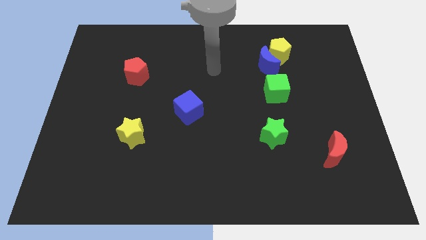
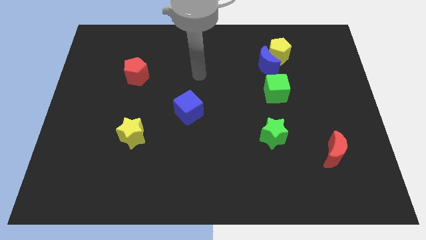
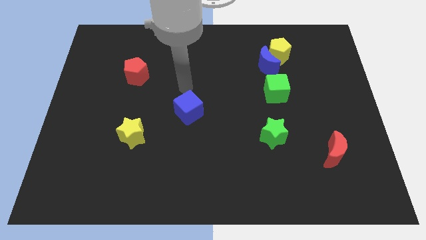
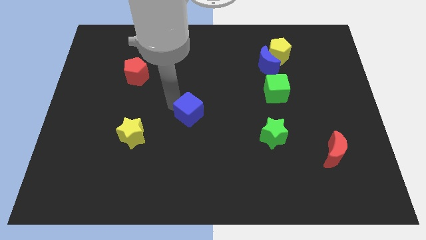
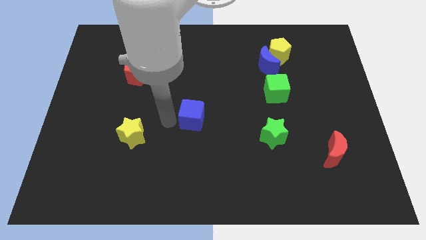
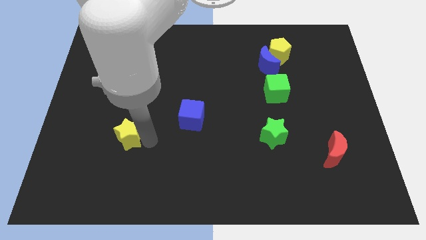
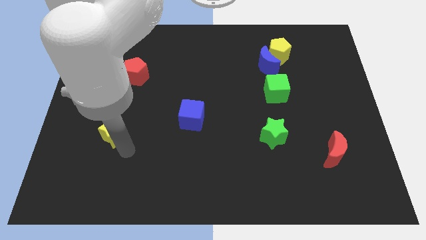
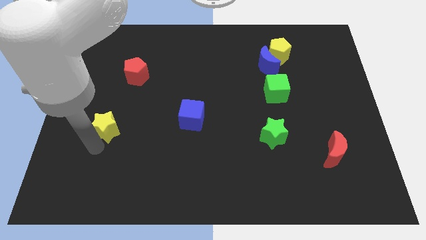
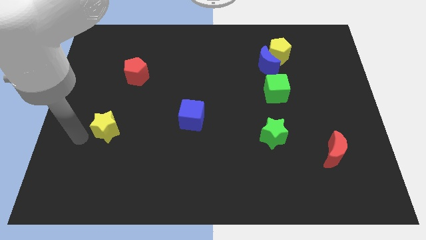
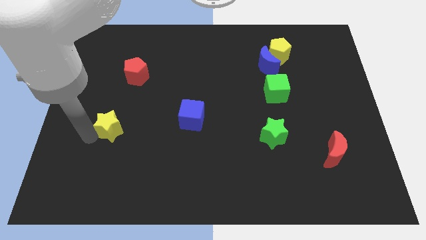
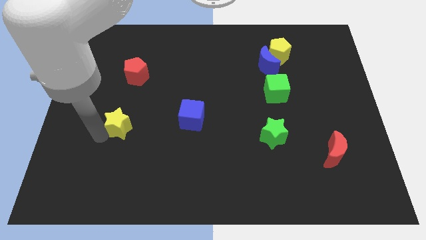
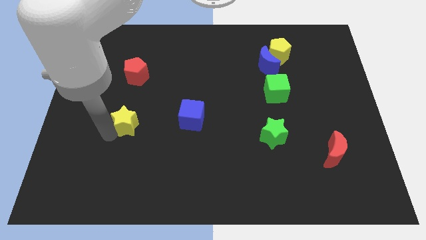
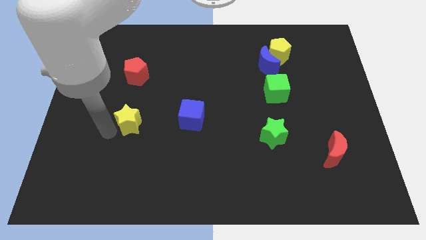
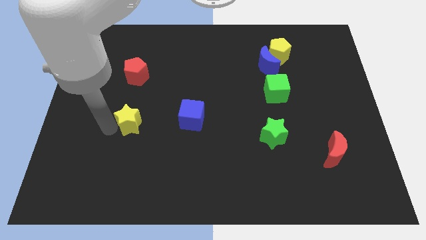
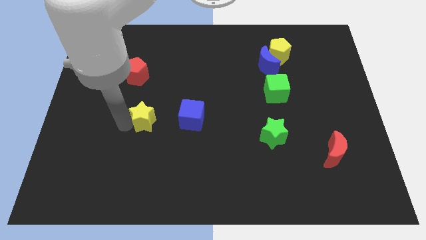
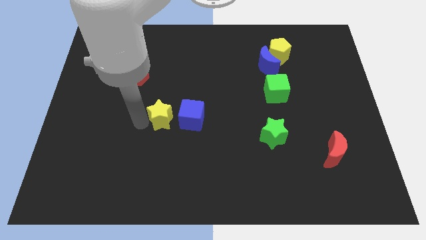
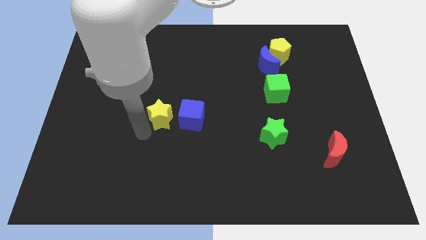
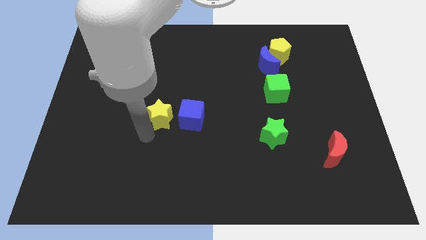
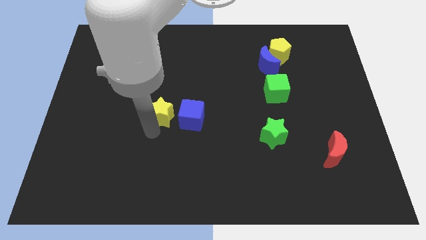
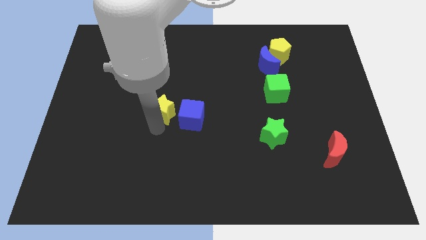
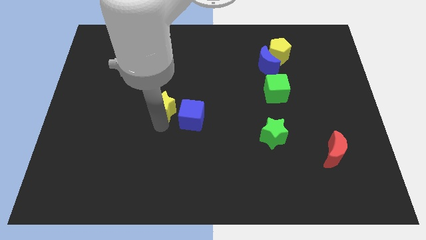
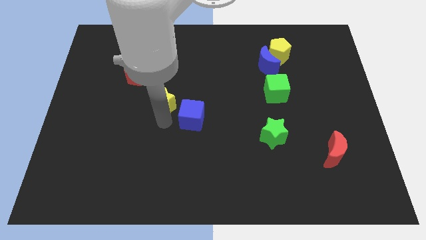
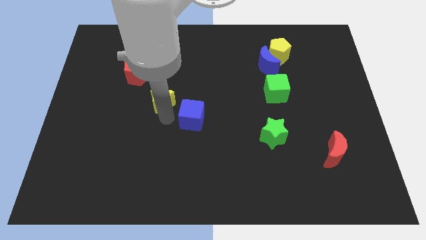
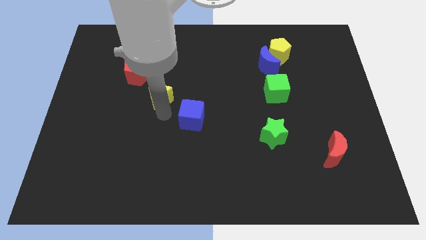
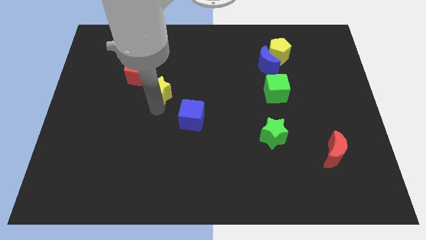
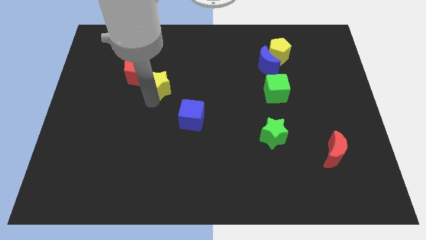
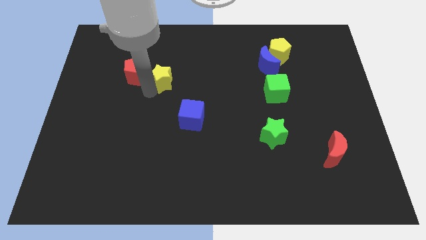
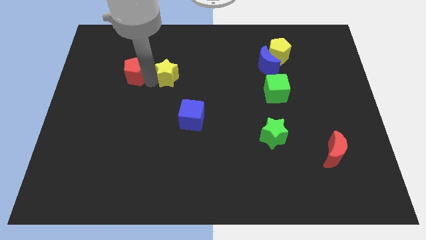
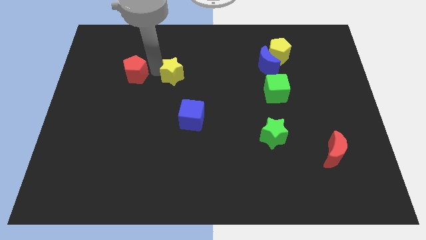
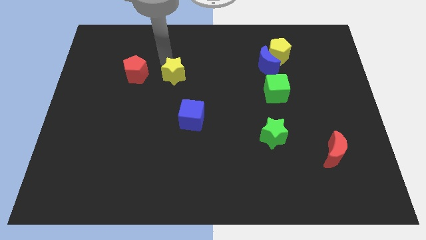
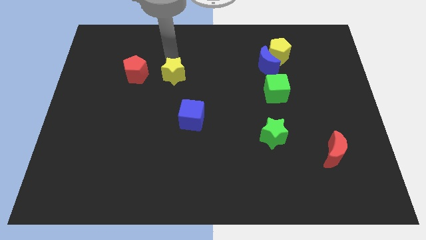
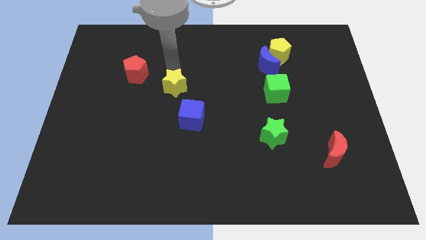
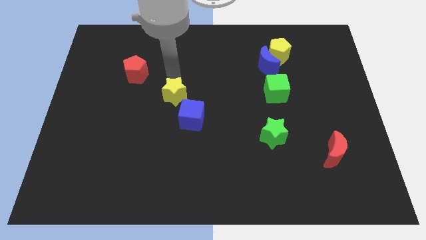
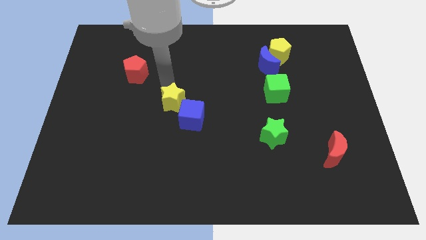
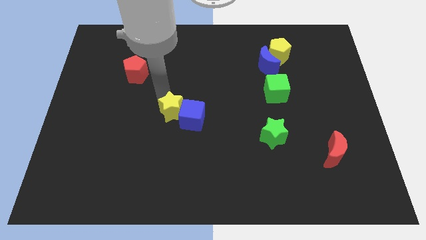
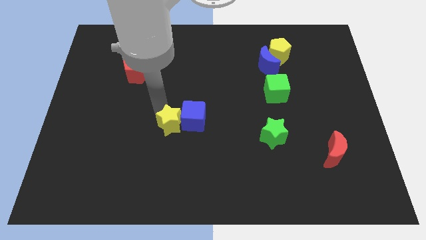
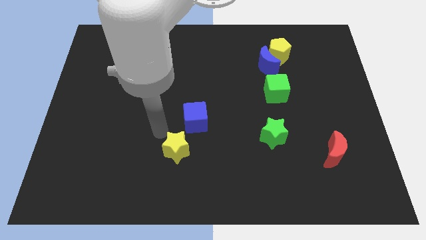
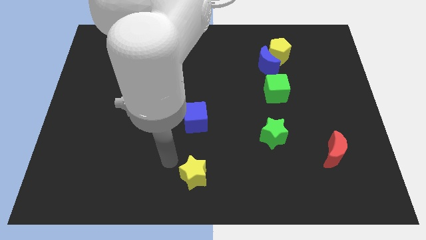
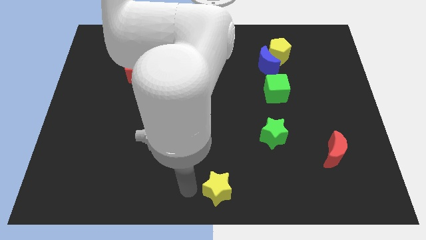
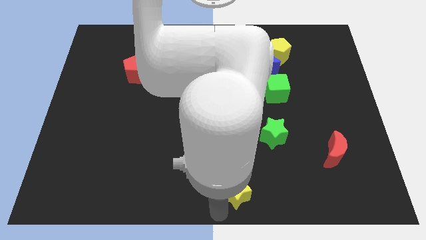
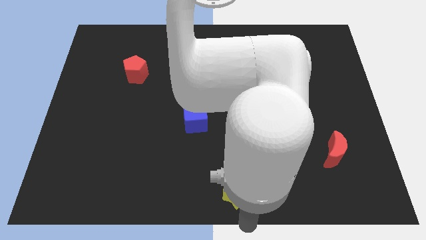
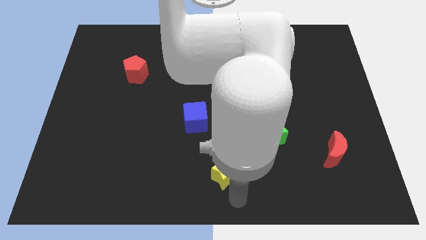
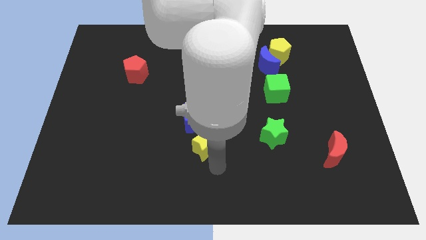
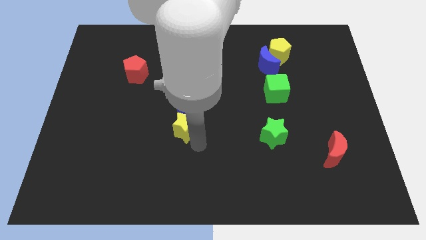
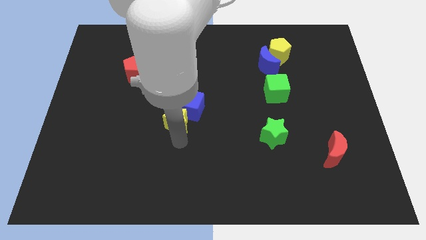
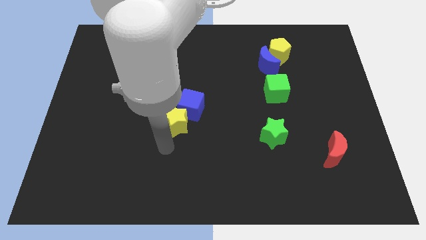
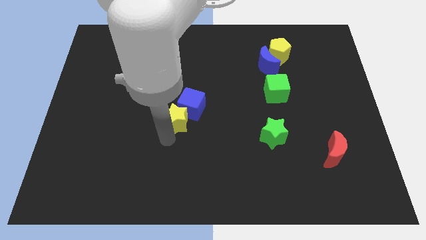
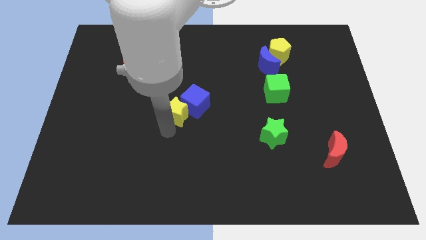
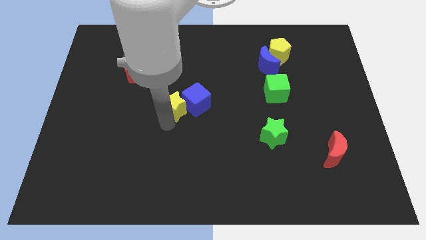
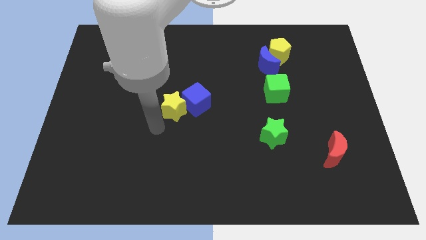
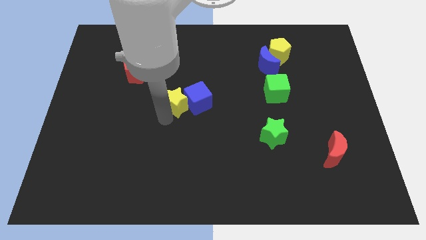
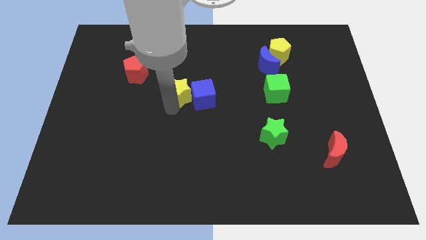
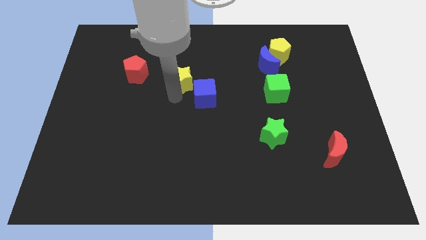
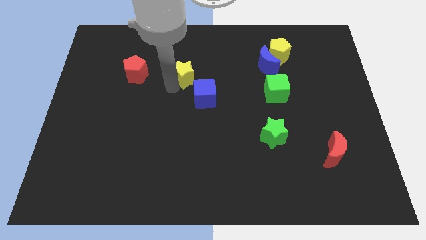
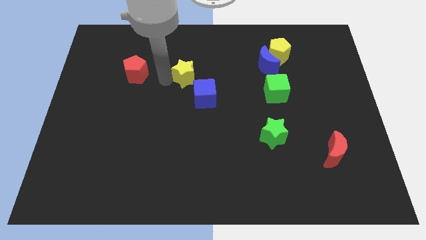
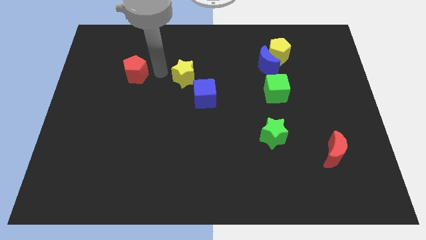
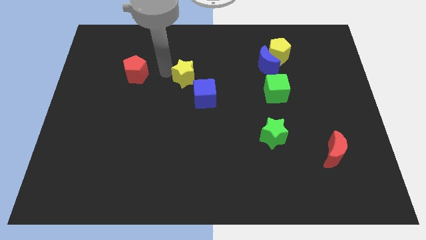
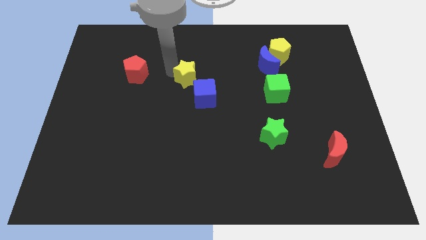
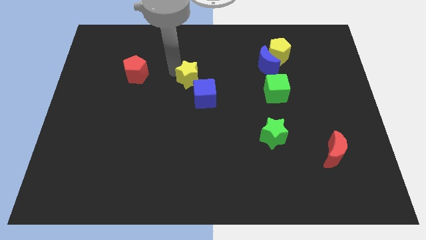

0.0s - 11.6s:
slide the yellow star up and to the right diagonally

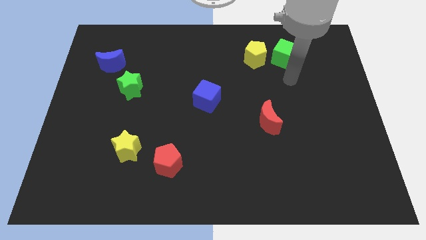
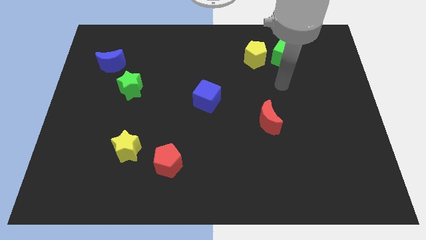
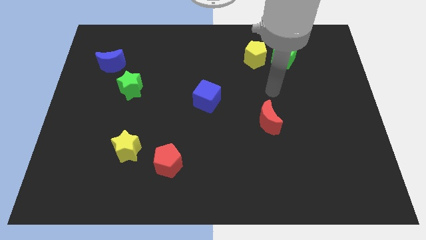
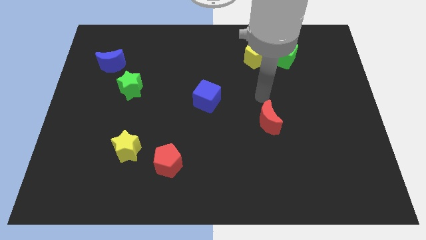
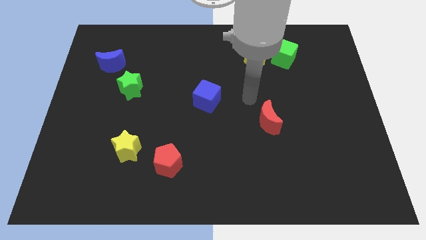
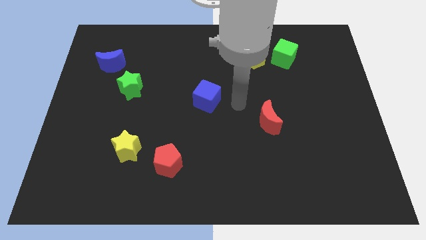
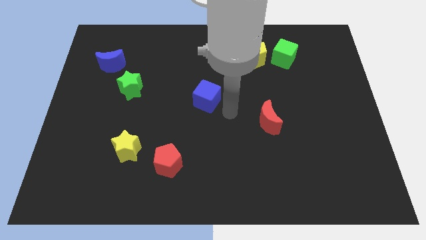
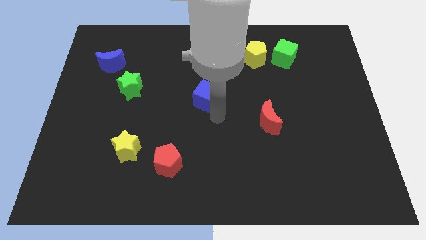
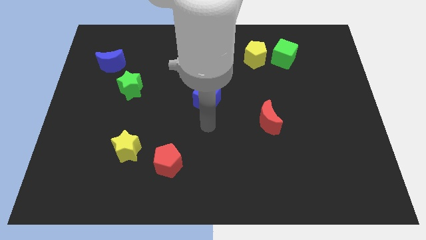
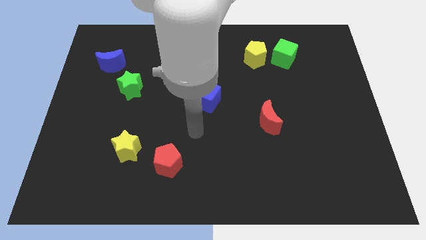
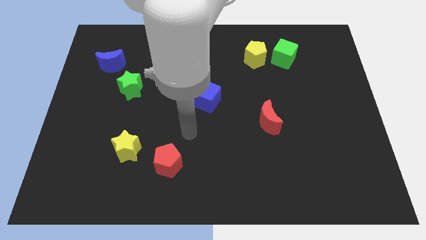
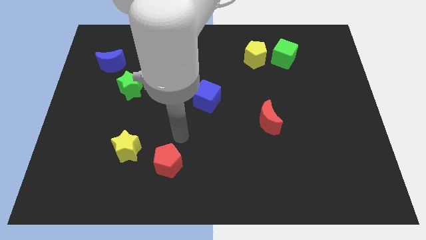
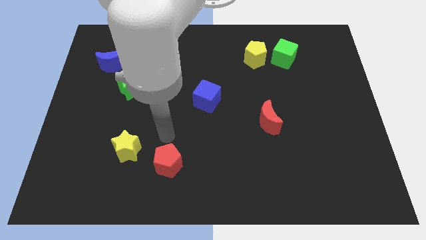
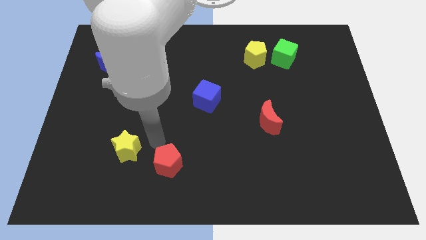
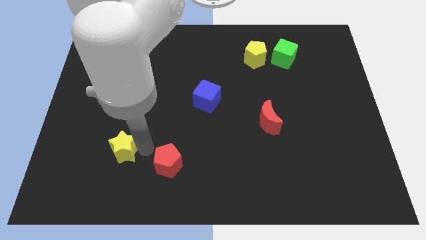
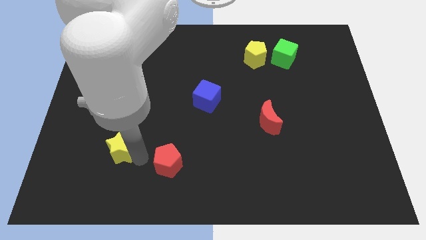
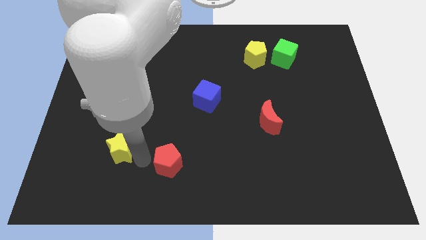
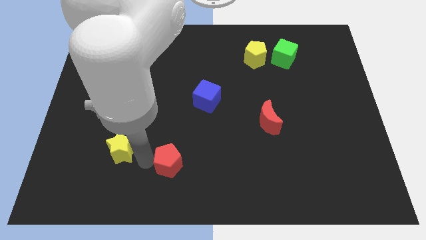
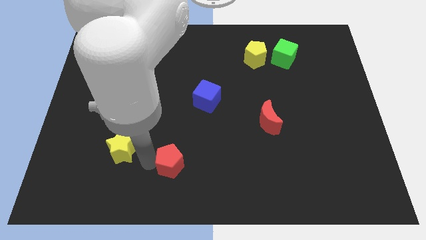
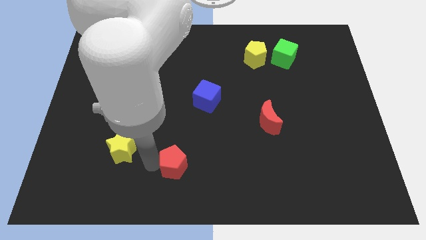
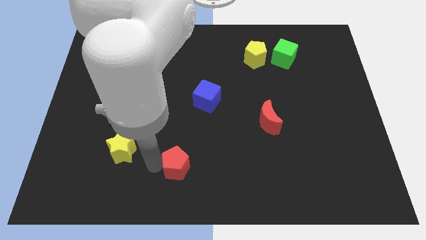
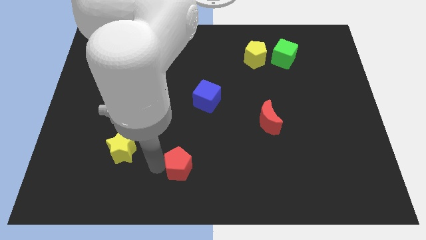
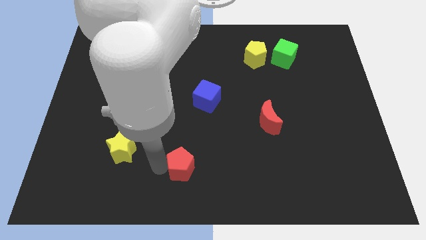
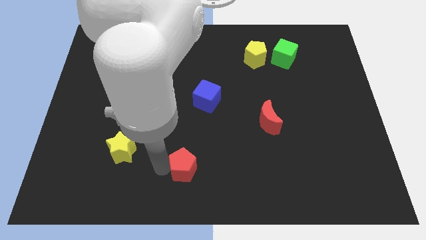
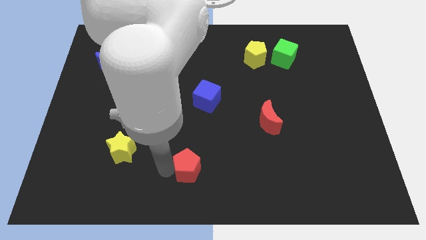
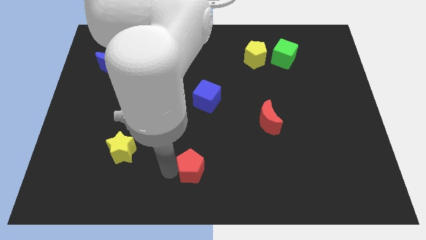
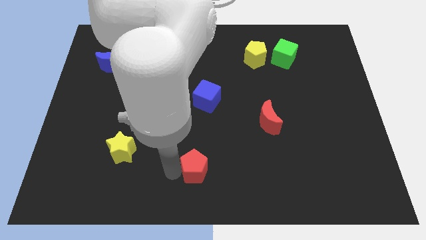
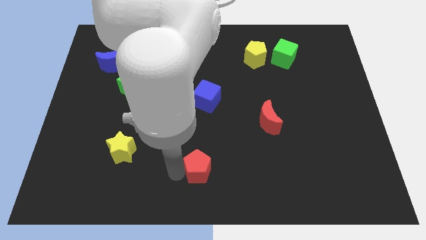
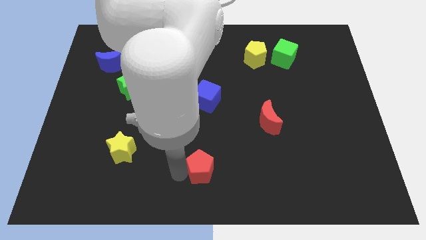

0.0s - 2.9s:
move the red pentagon a bit to the right
